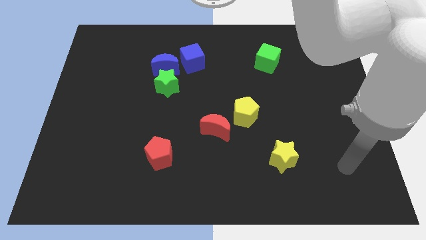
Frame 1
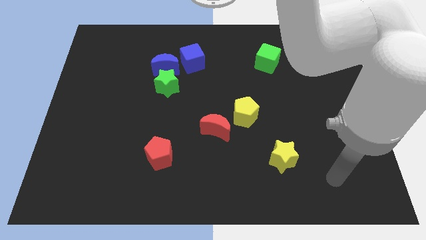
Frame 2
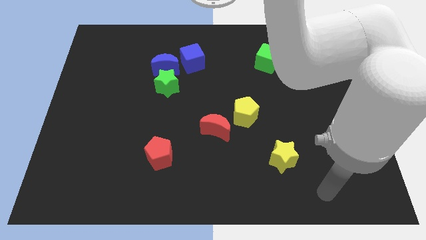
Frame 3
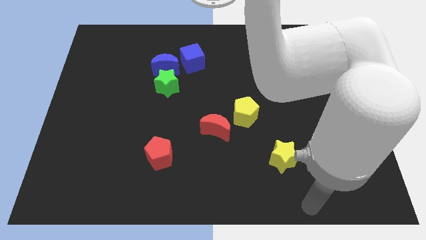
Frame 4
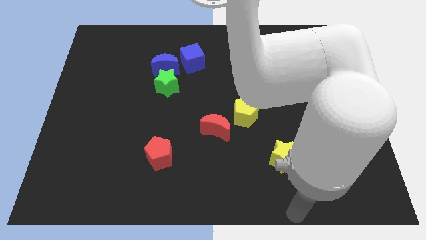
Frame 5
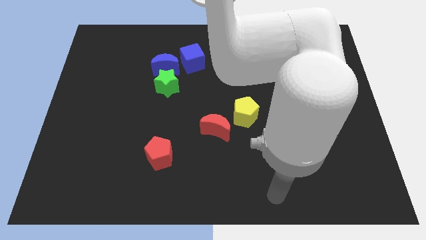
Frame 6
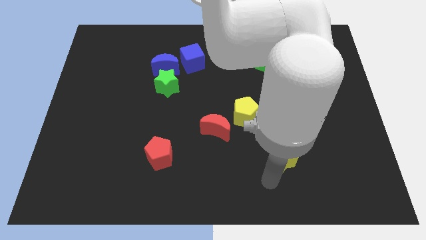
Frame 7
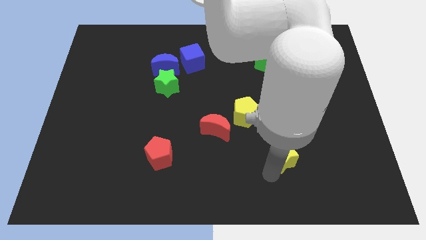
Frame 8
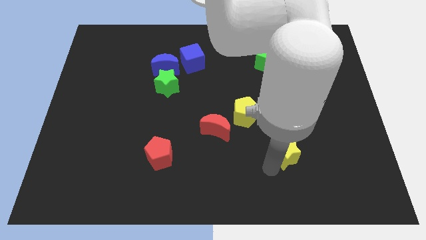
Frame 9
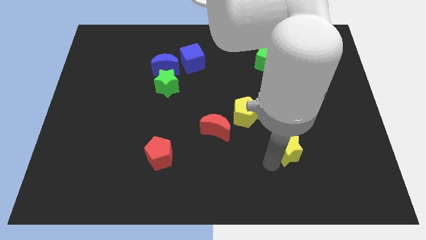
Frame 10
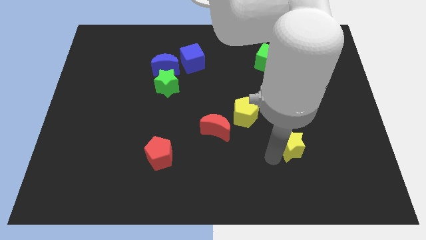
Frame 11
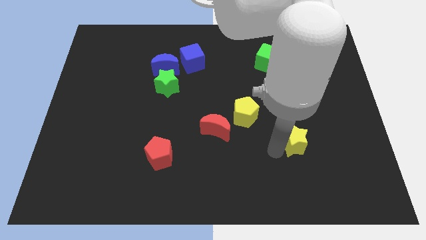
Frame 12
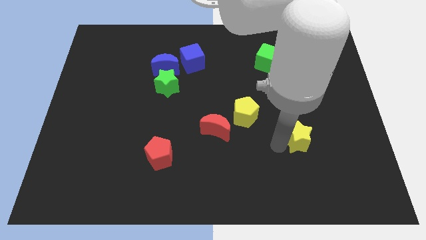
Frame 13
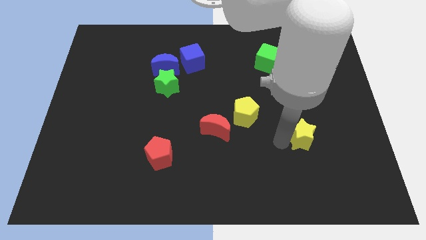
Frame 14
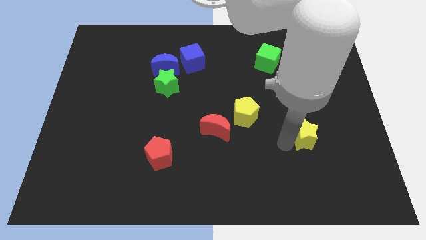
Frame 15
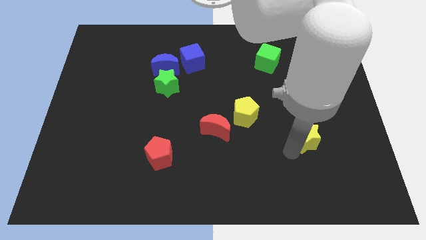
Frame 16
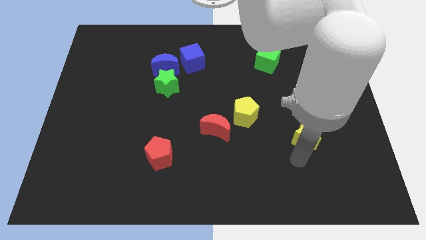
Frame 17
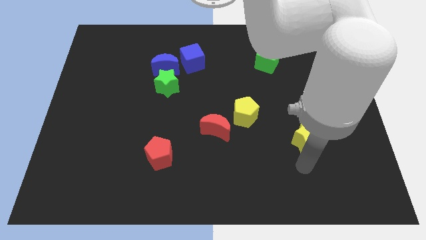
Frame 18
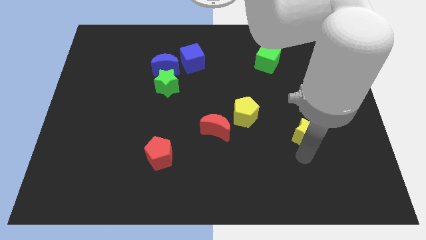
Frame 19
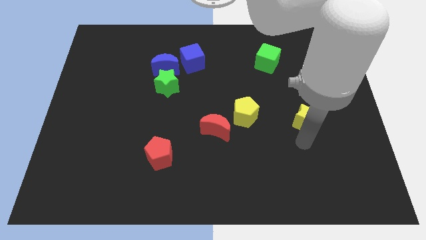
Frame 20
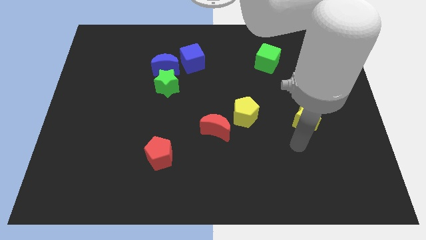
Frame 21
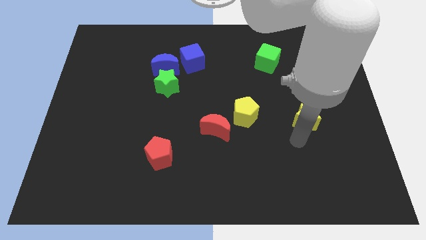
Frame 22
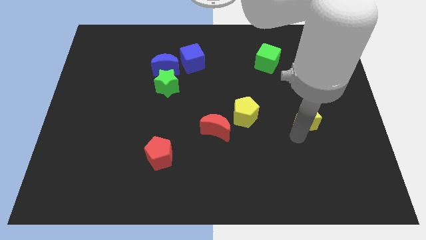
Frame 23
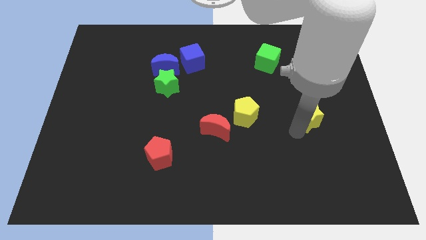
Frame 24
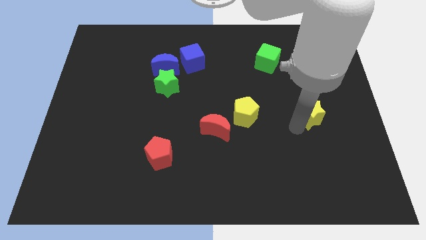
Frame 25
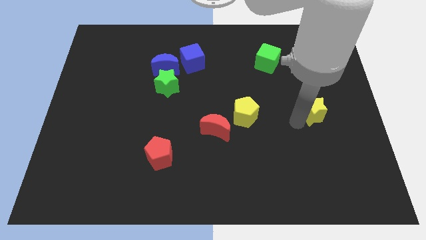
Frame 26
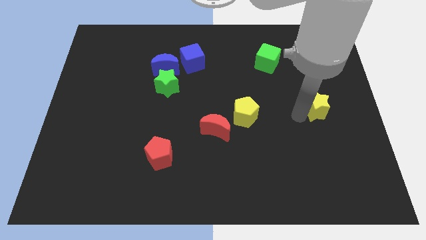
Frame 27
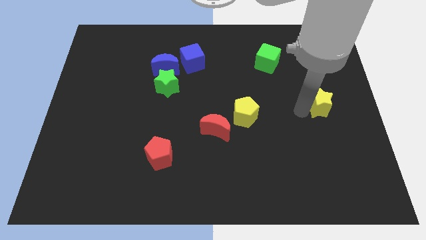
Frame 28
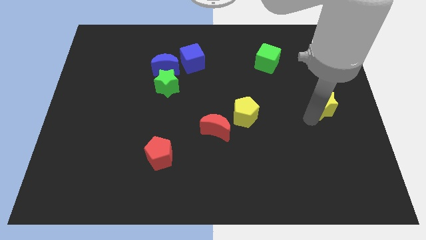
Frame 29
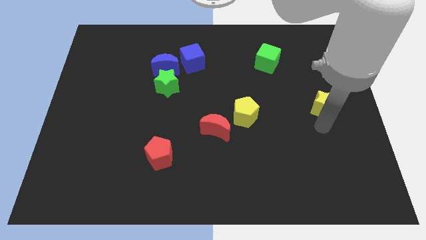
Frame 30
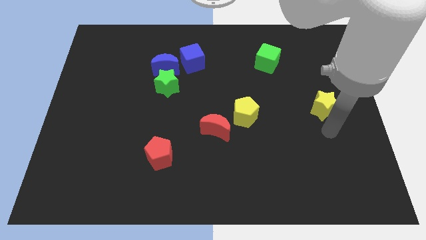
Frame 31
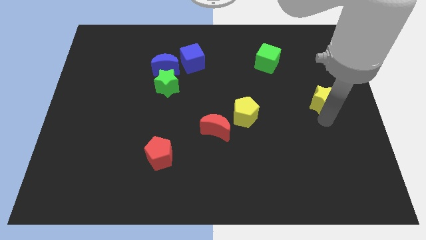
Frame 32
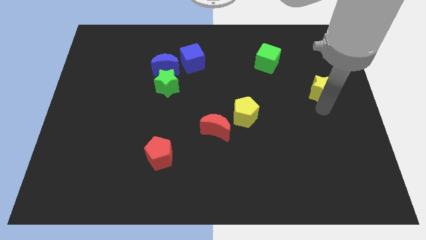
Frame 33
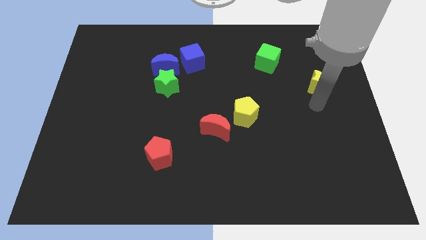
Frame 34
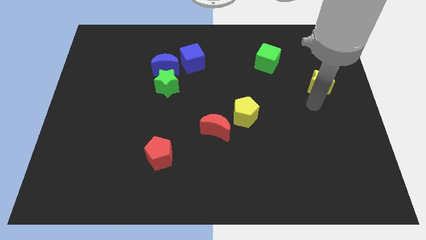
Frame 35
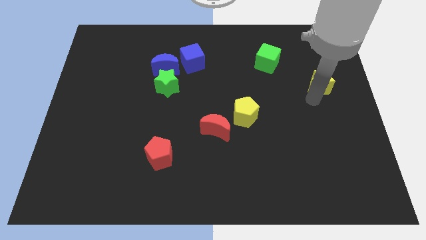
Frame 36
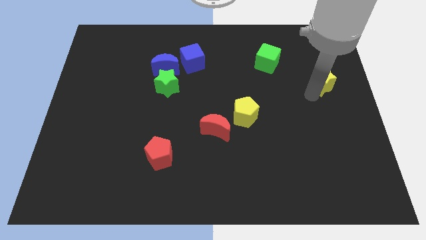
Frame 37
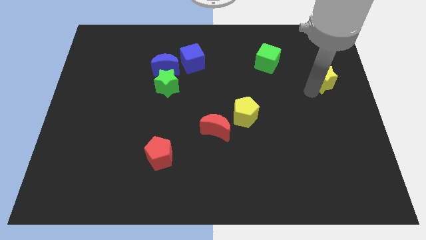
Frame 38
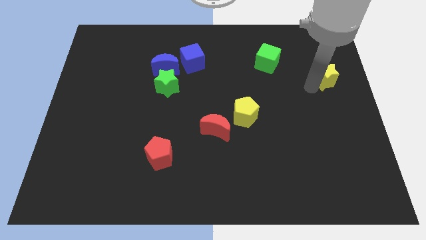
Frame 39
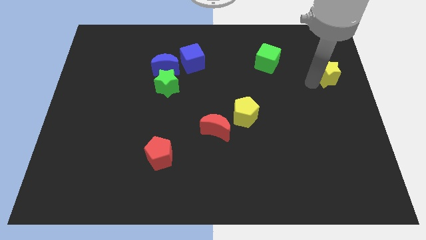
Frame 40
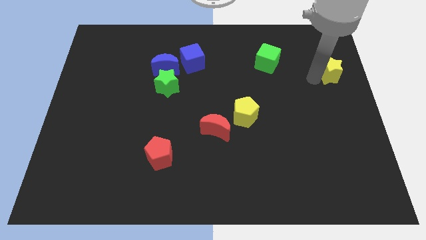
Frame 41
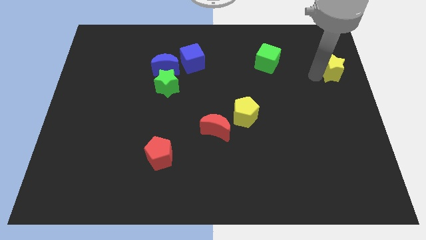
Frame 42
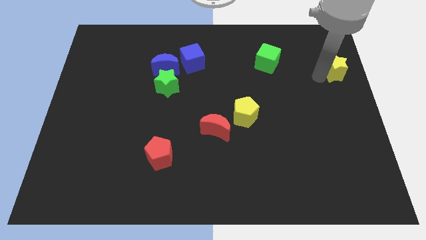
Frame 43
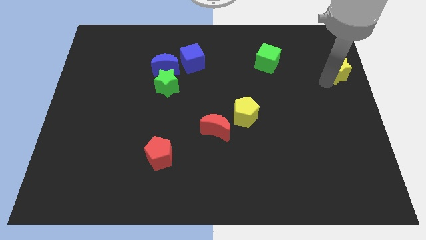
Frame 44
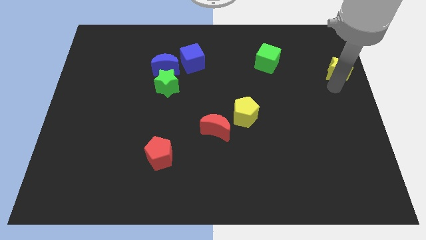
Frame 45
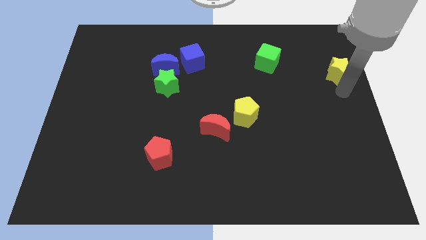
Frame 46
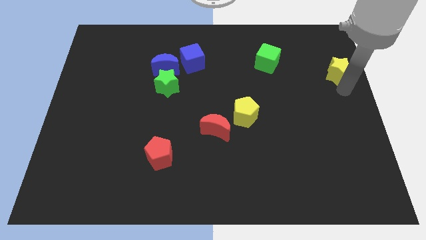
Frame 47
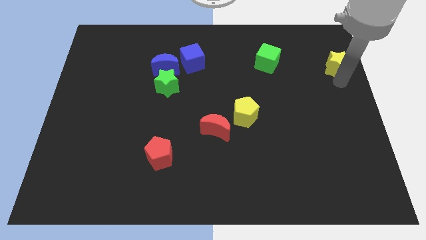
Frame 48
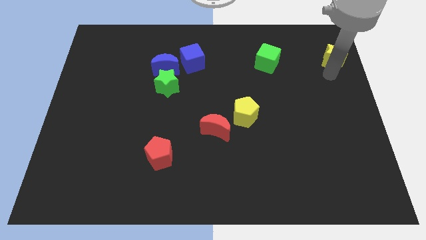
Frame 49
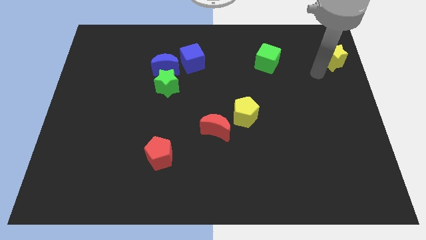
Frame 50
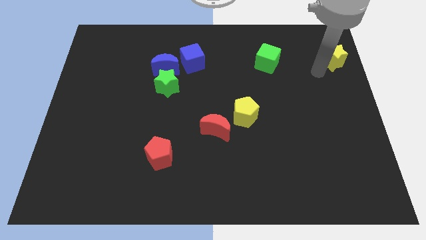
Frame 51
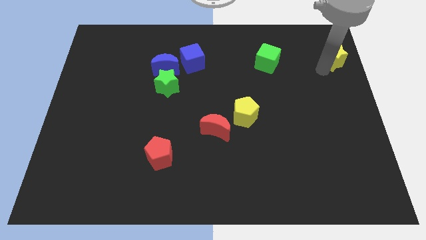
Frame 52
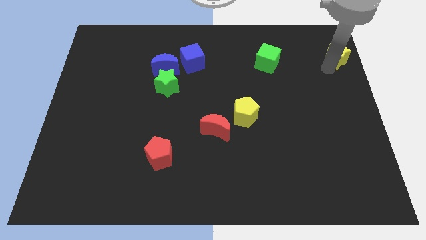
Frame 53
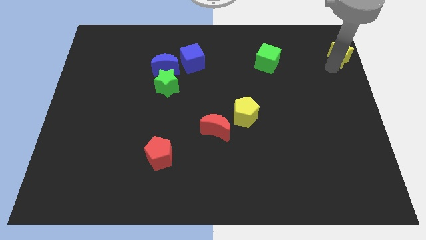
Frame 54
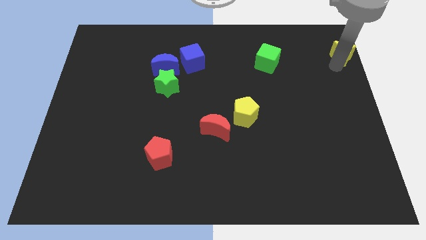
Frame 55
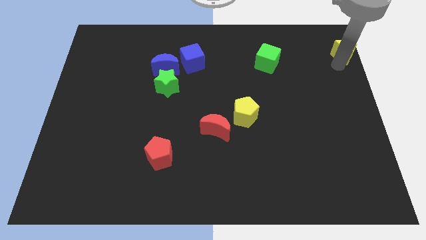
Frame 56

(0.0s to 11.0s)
put the yellow star to the upper right corner

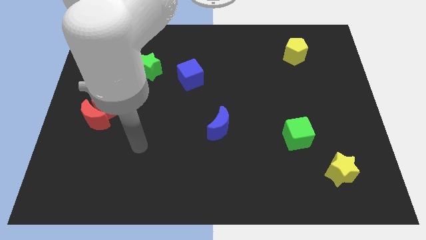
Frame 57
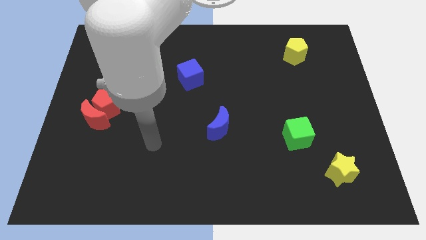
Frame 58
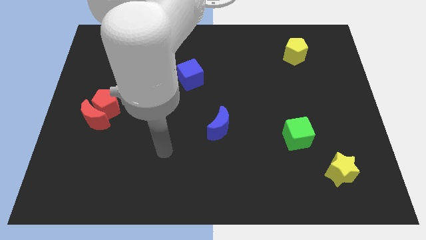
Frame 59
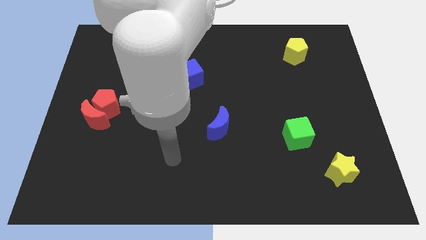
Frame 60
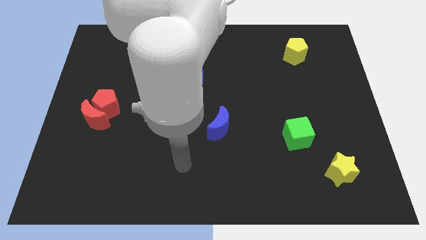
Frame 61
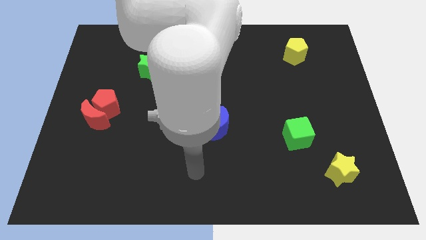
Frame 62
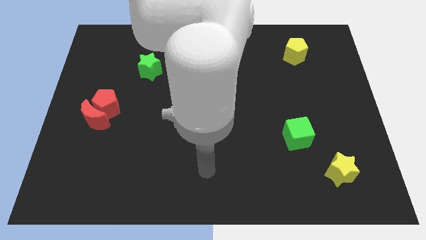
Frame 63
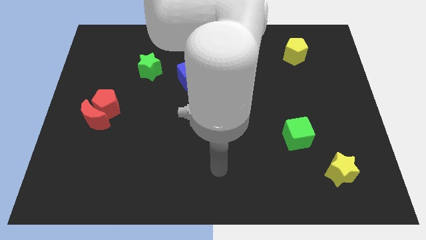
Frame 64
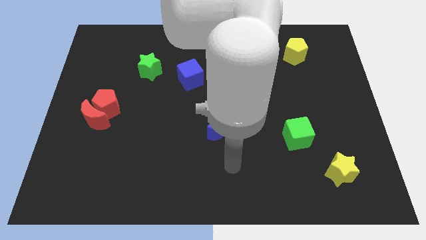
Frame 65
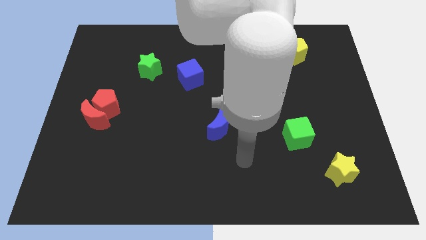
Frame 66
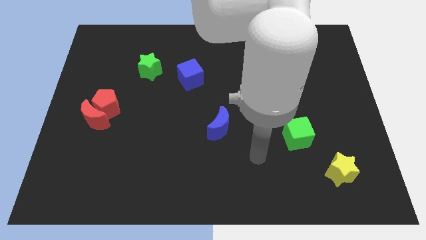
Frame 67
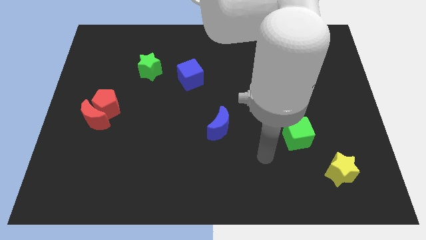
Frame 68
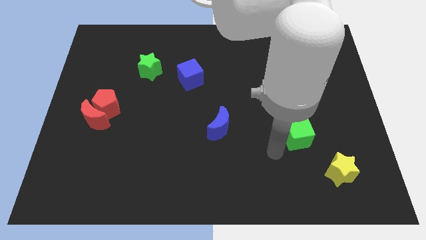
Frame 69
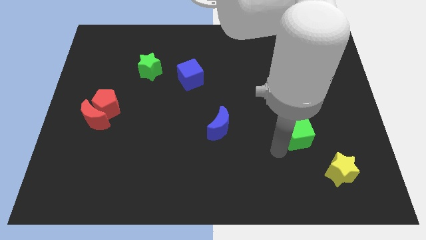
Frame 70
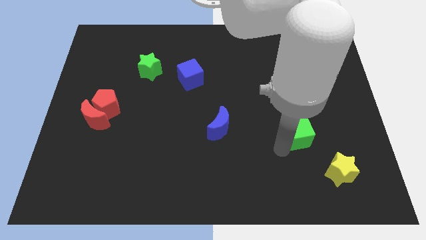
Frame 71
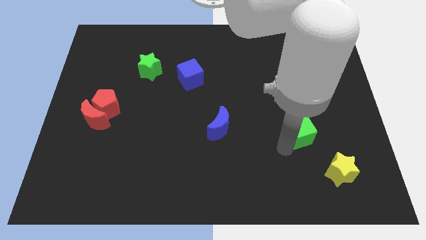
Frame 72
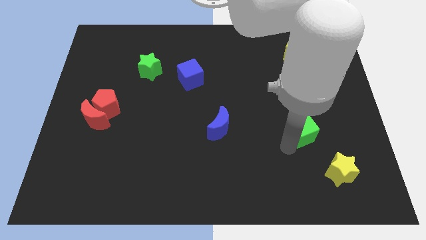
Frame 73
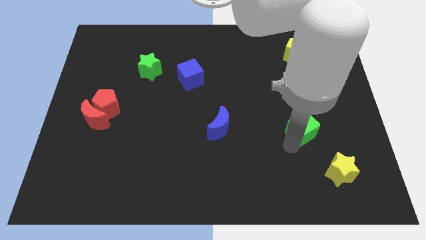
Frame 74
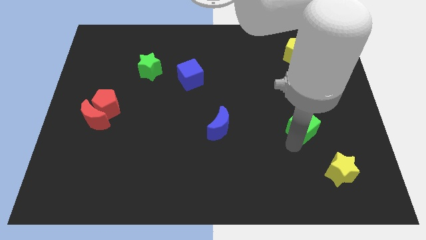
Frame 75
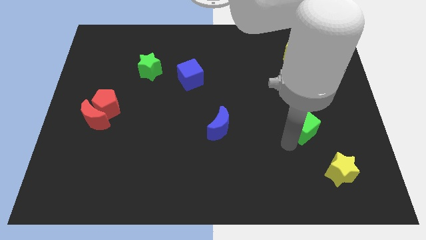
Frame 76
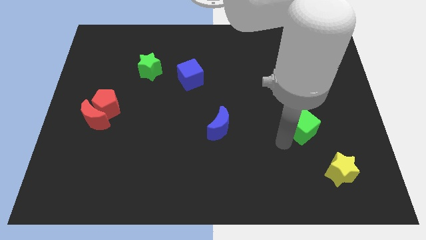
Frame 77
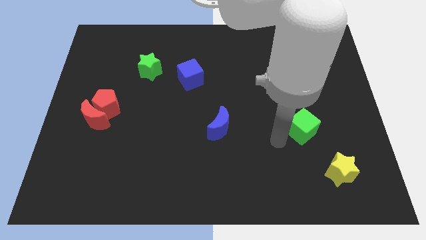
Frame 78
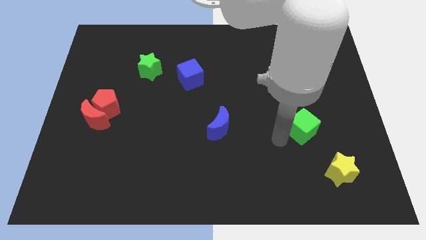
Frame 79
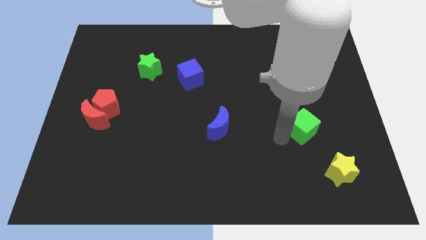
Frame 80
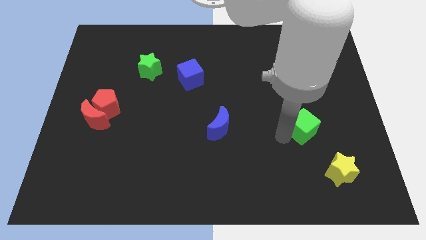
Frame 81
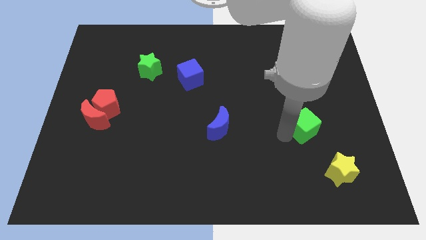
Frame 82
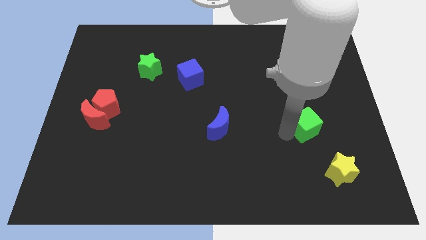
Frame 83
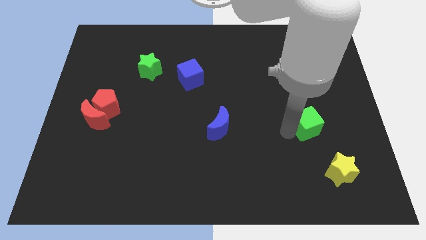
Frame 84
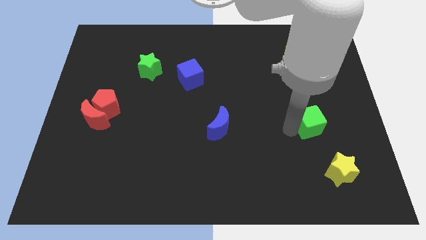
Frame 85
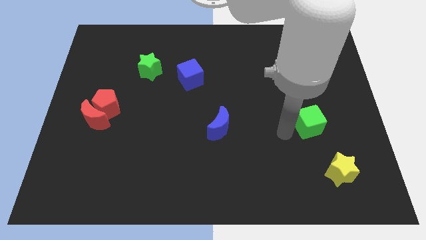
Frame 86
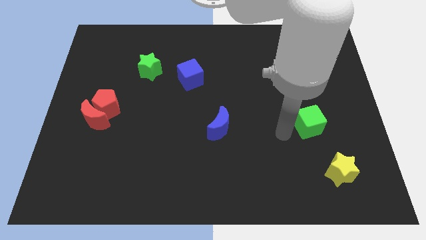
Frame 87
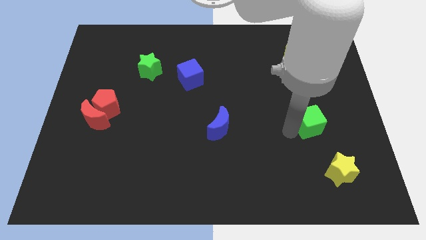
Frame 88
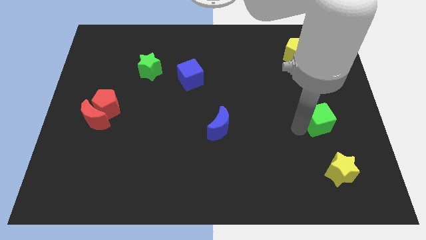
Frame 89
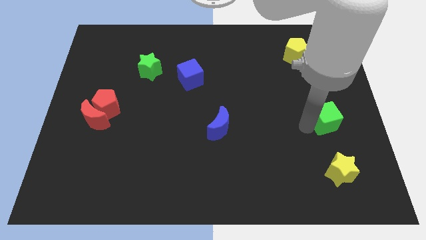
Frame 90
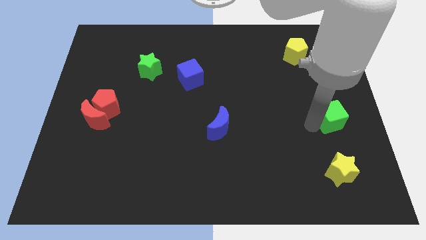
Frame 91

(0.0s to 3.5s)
slide the green cube to the right side of the board
